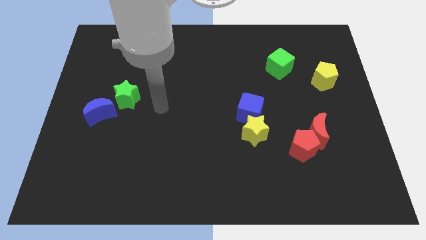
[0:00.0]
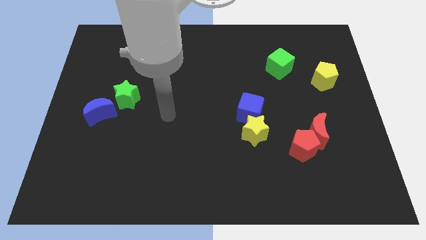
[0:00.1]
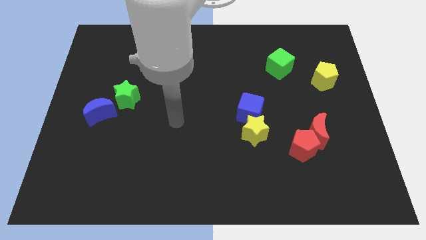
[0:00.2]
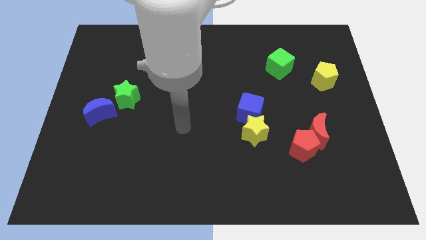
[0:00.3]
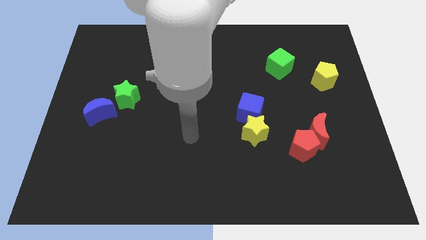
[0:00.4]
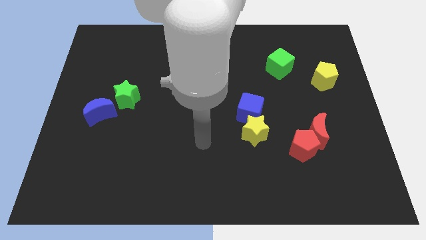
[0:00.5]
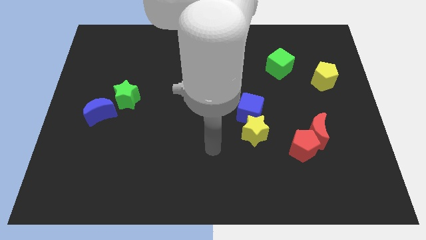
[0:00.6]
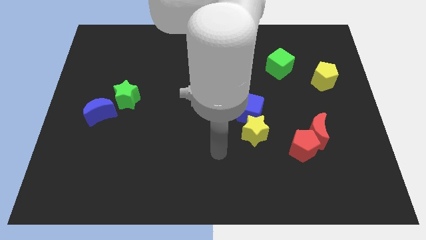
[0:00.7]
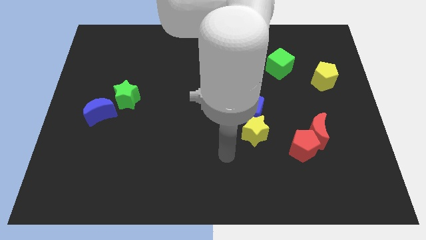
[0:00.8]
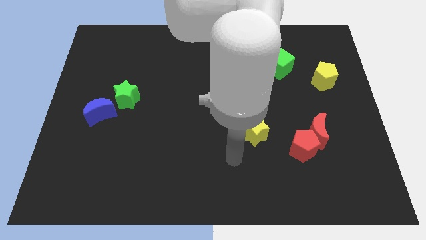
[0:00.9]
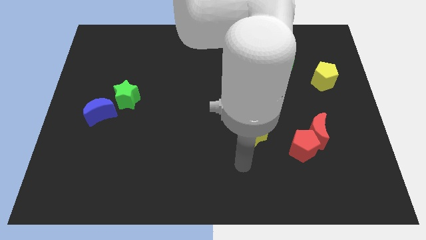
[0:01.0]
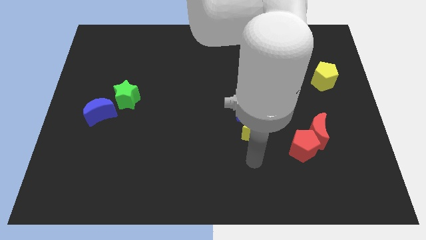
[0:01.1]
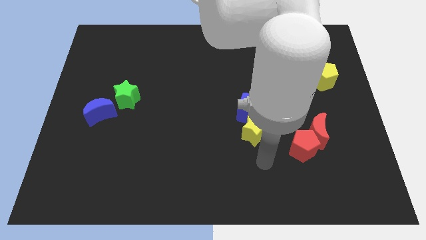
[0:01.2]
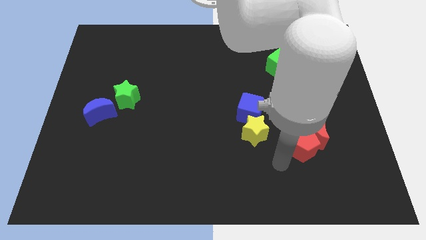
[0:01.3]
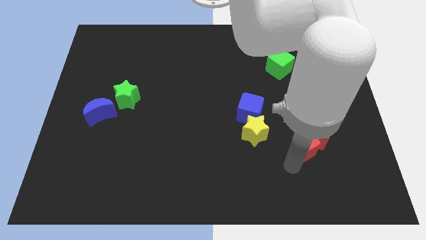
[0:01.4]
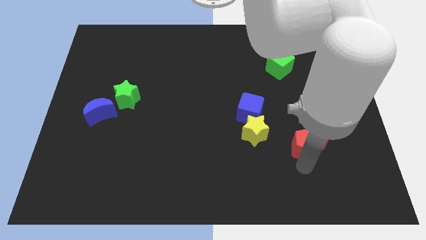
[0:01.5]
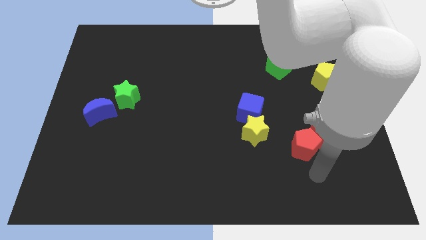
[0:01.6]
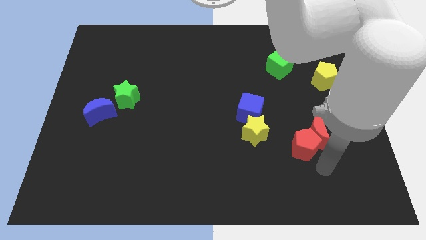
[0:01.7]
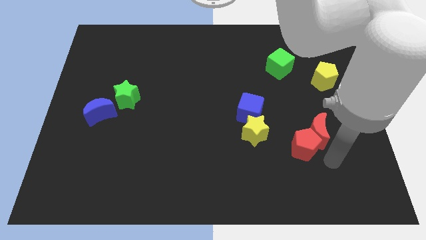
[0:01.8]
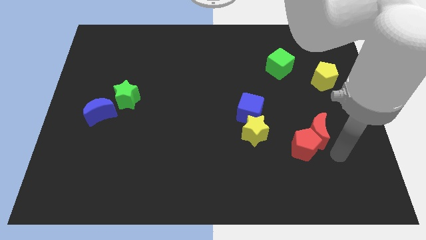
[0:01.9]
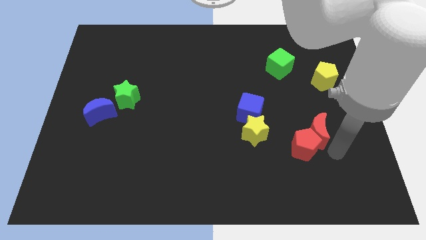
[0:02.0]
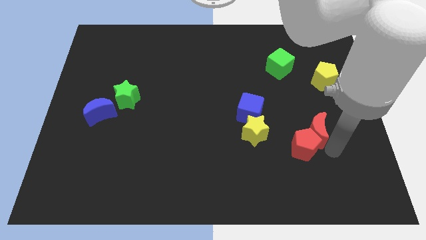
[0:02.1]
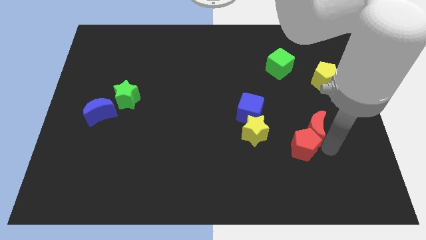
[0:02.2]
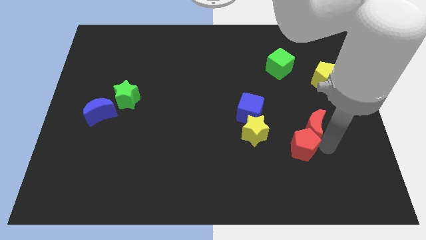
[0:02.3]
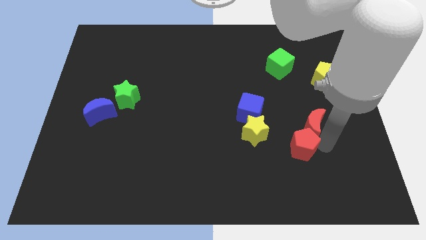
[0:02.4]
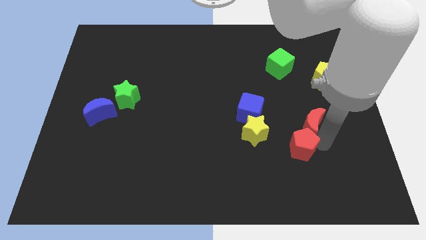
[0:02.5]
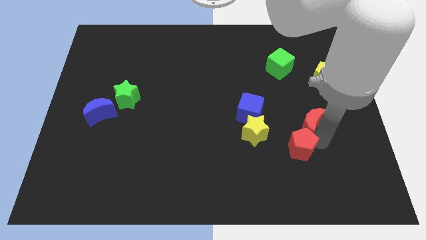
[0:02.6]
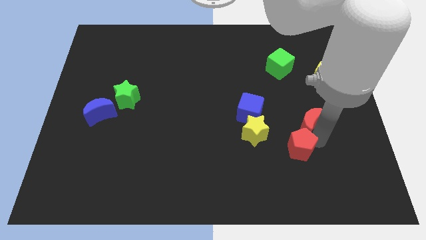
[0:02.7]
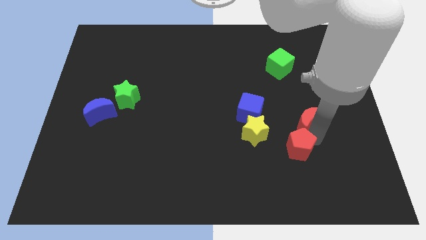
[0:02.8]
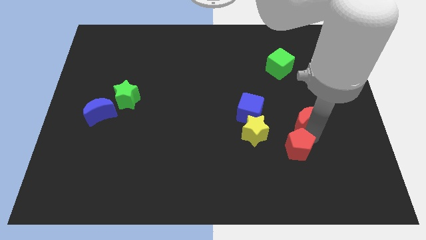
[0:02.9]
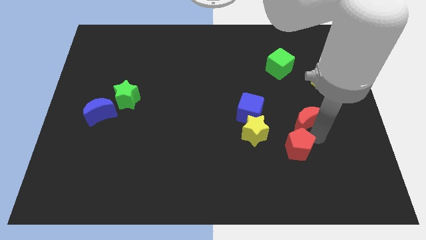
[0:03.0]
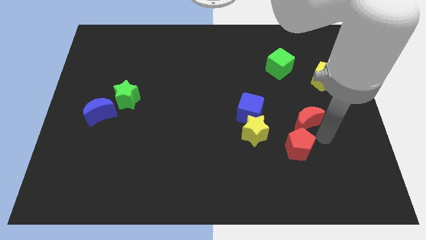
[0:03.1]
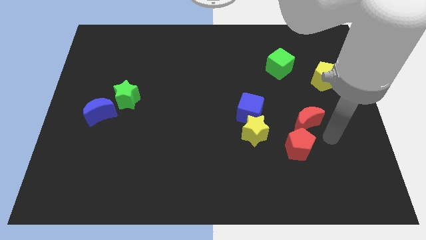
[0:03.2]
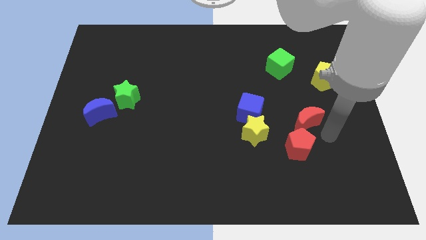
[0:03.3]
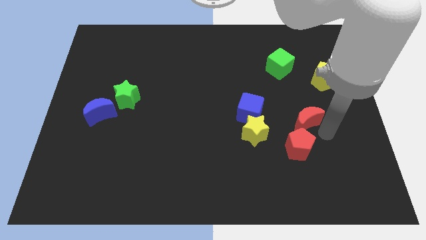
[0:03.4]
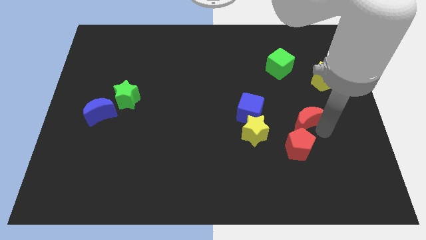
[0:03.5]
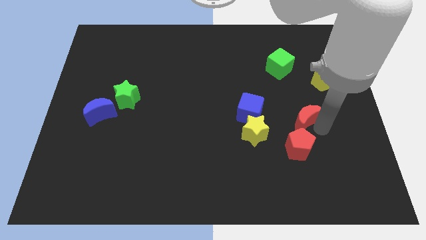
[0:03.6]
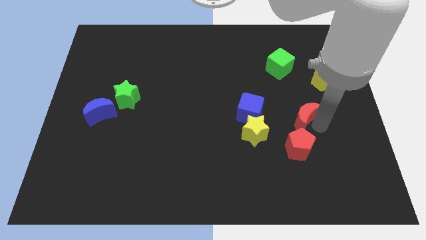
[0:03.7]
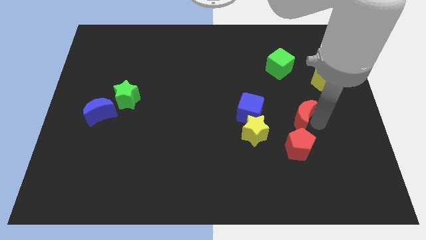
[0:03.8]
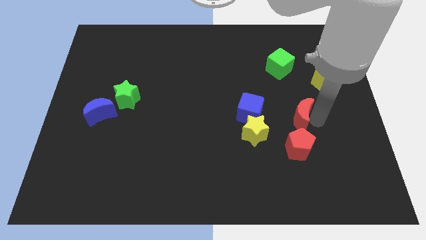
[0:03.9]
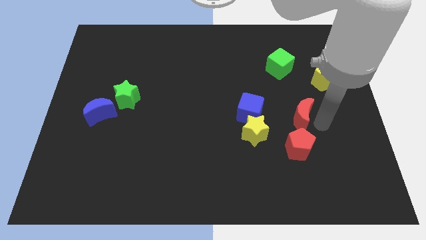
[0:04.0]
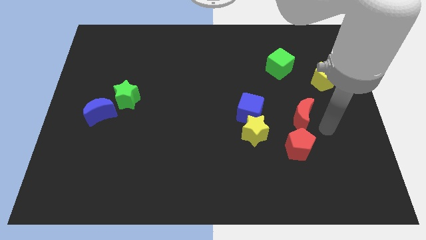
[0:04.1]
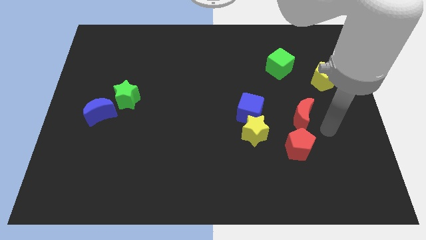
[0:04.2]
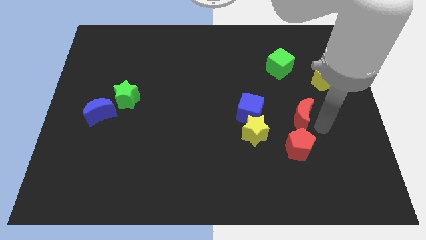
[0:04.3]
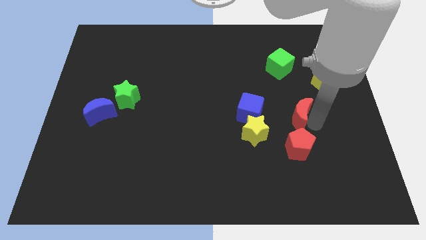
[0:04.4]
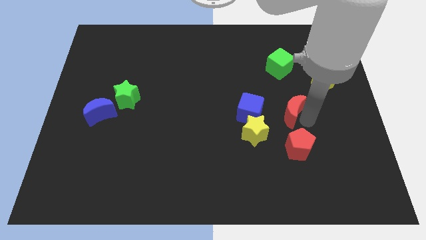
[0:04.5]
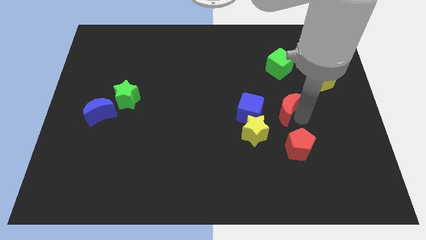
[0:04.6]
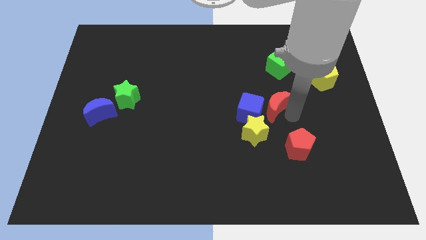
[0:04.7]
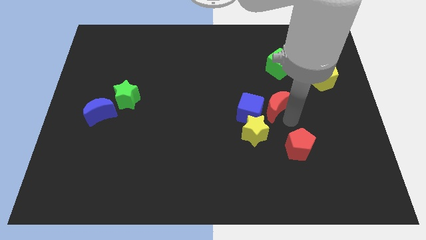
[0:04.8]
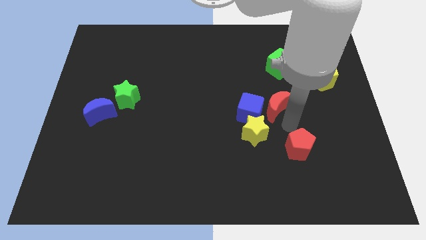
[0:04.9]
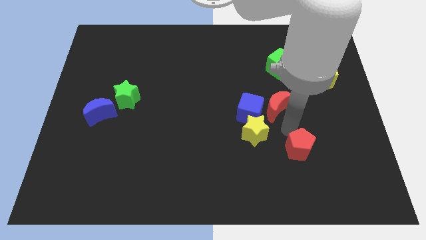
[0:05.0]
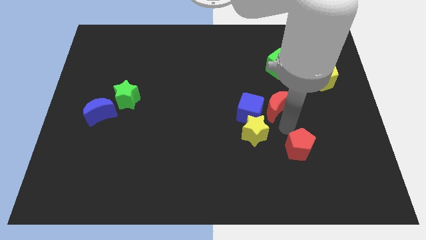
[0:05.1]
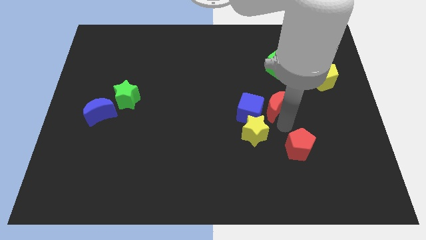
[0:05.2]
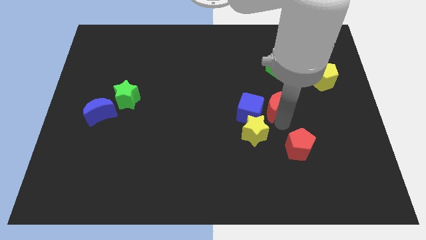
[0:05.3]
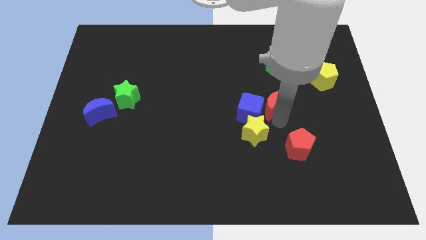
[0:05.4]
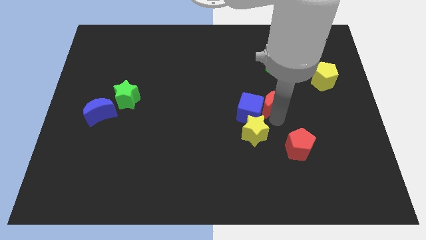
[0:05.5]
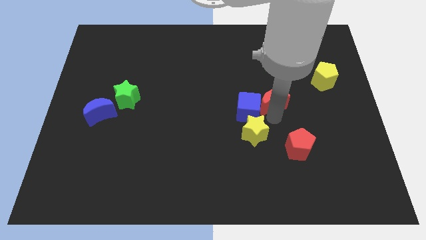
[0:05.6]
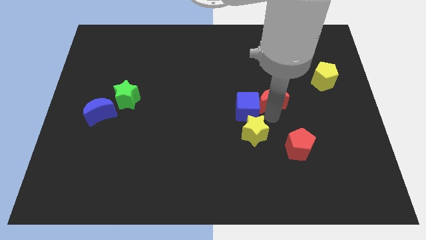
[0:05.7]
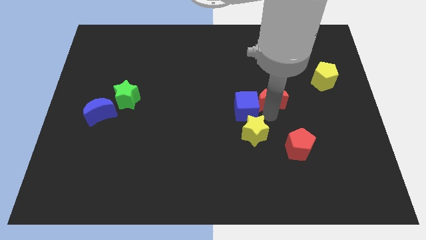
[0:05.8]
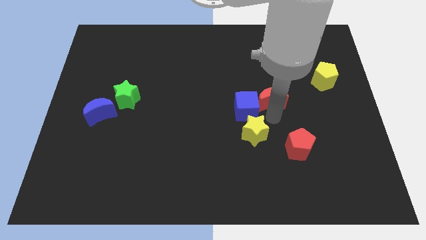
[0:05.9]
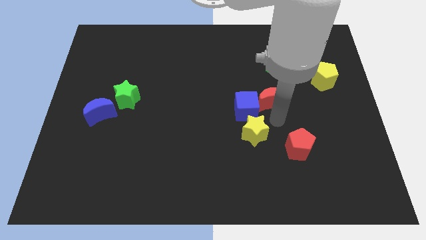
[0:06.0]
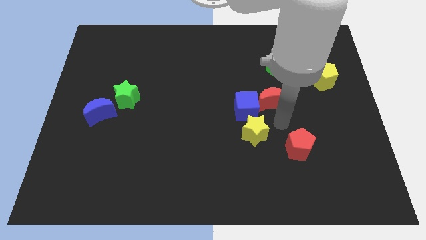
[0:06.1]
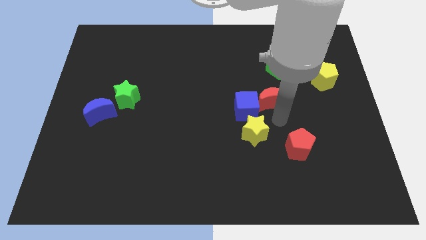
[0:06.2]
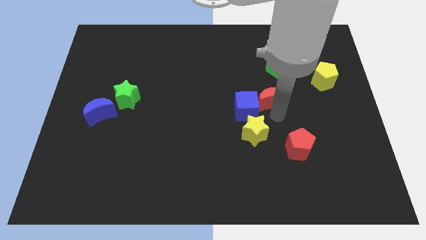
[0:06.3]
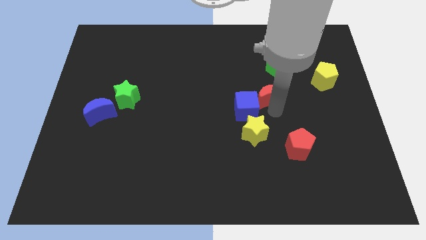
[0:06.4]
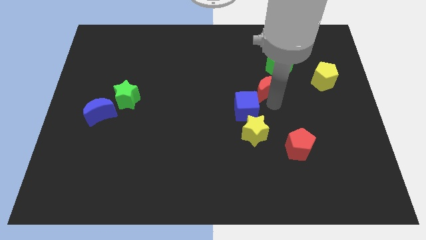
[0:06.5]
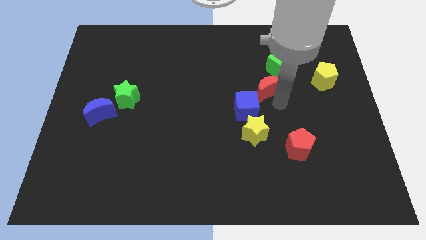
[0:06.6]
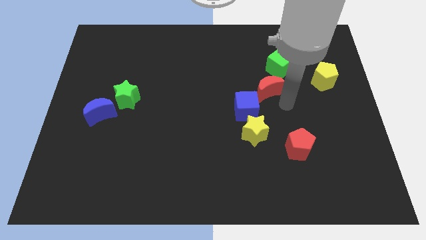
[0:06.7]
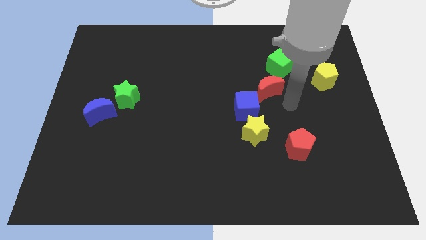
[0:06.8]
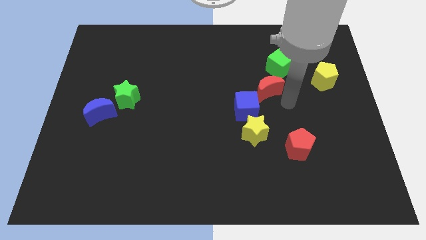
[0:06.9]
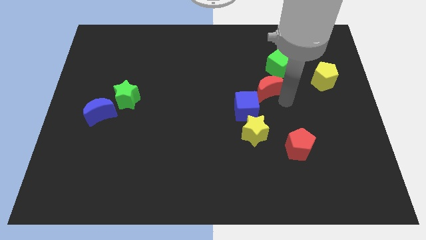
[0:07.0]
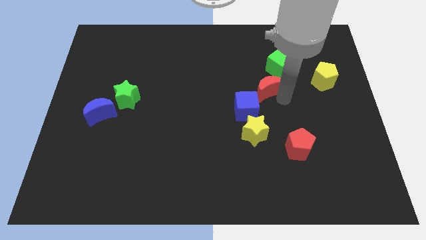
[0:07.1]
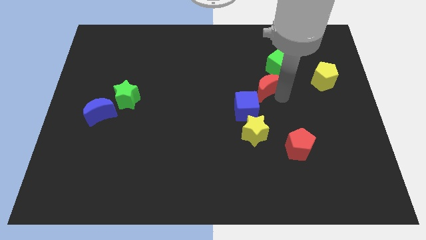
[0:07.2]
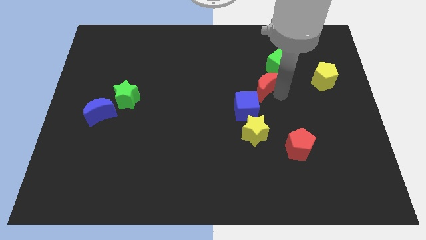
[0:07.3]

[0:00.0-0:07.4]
move the red moon above the blue cube
